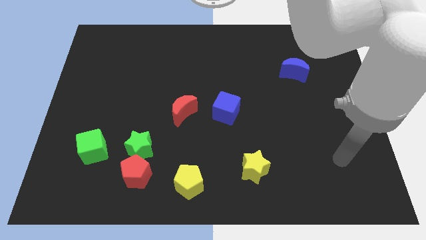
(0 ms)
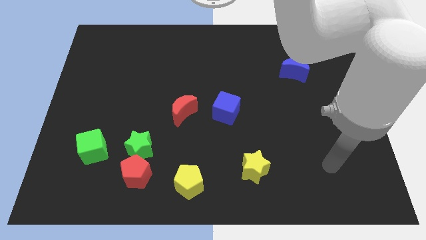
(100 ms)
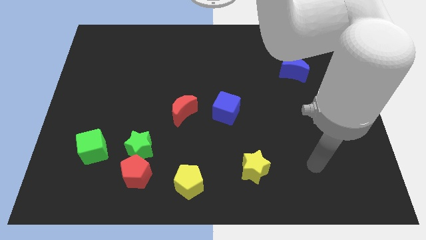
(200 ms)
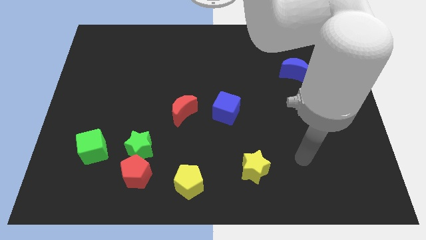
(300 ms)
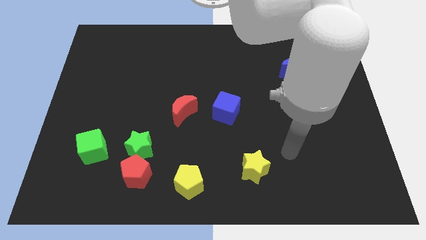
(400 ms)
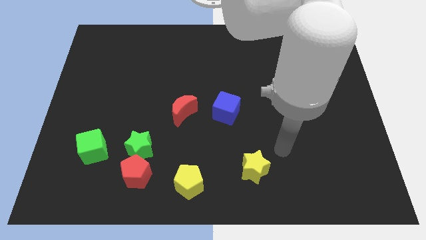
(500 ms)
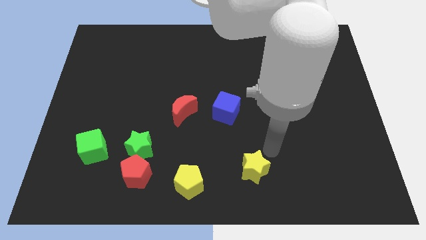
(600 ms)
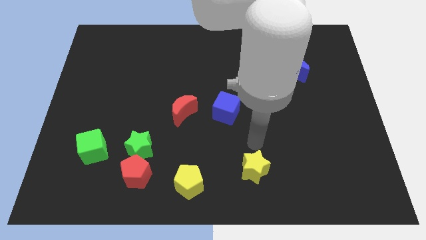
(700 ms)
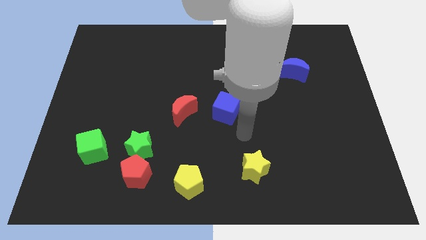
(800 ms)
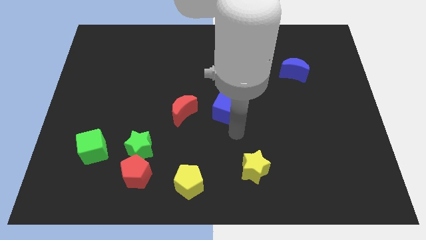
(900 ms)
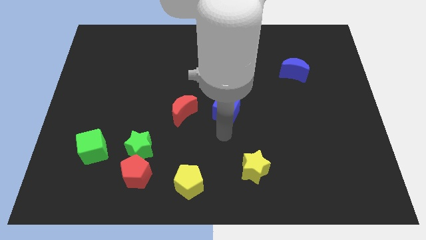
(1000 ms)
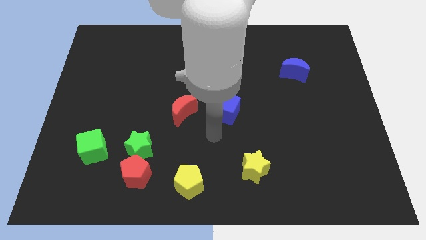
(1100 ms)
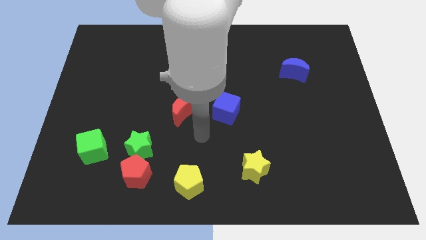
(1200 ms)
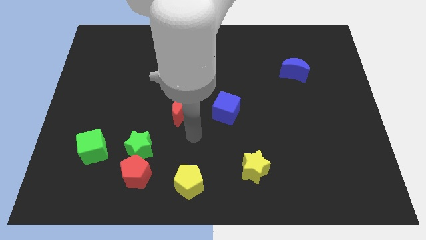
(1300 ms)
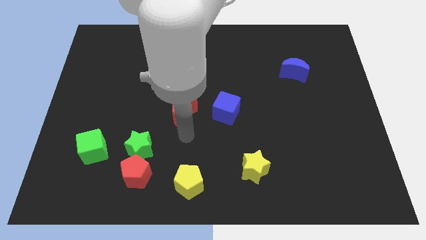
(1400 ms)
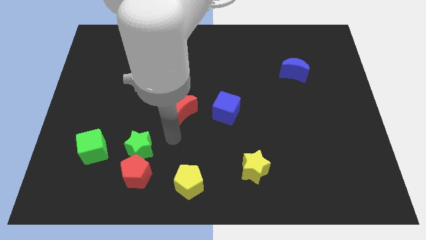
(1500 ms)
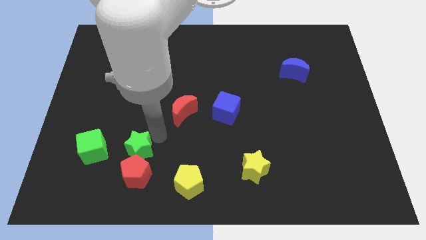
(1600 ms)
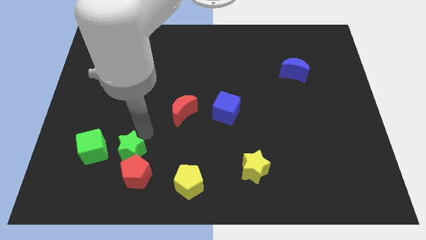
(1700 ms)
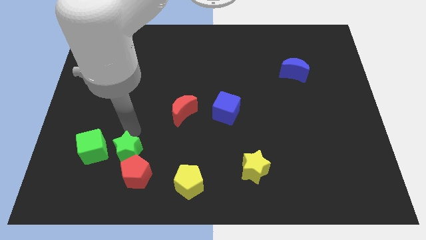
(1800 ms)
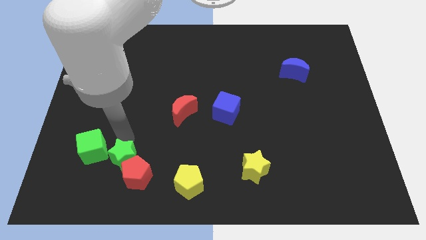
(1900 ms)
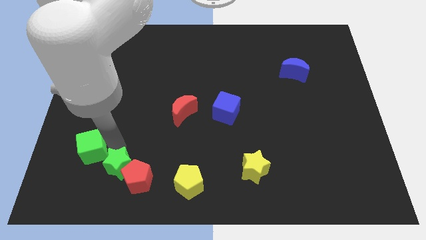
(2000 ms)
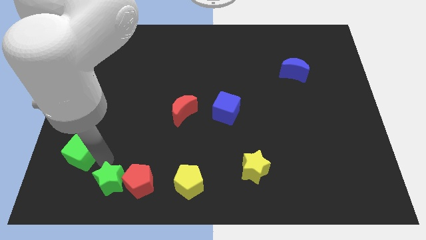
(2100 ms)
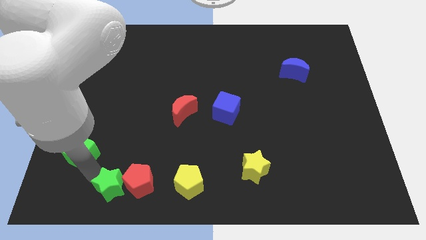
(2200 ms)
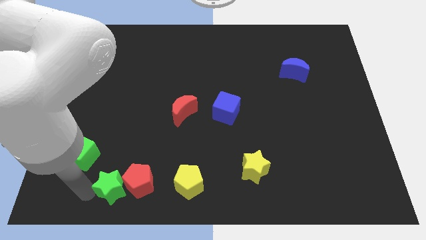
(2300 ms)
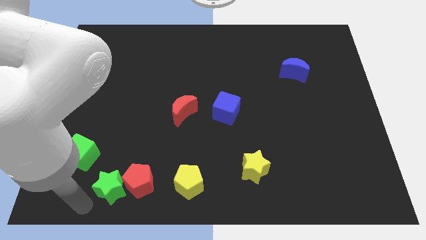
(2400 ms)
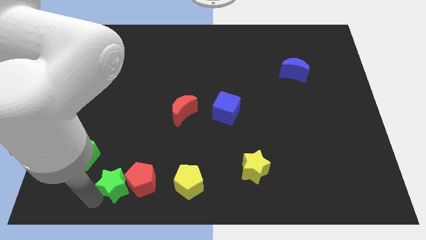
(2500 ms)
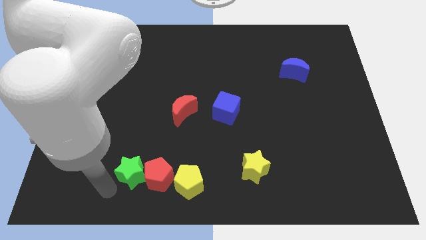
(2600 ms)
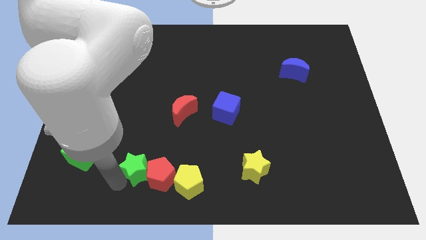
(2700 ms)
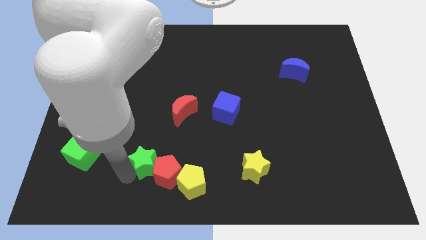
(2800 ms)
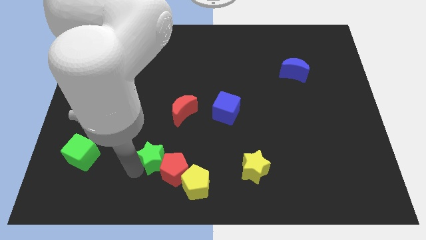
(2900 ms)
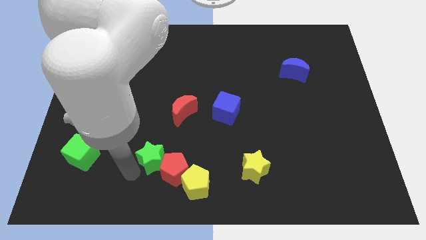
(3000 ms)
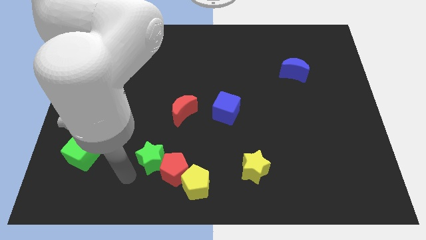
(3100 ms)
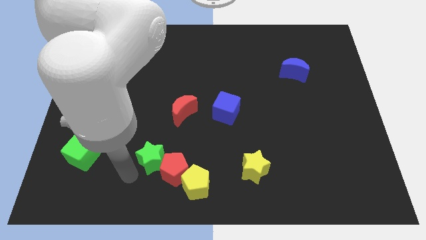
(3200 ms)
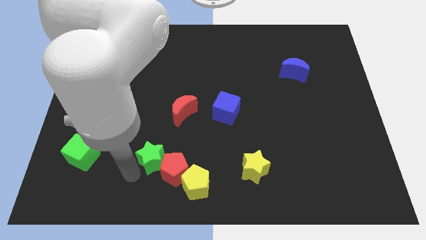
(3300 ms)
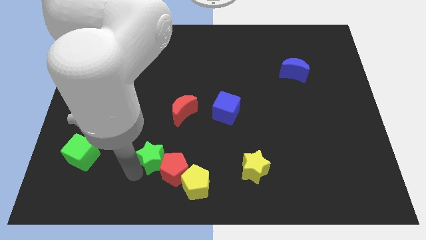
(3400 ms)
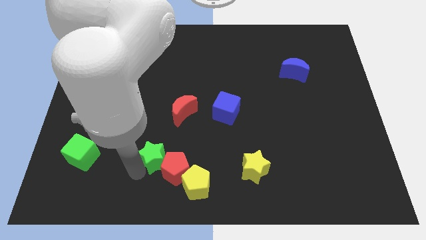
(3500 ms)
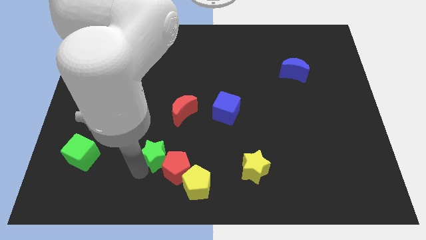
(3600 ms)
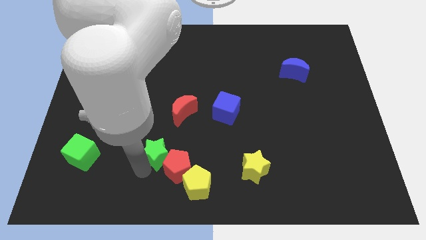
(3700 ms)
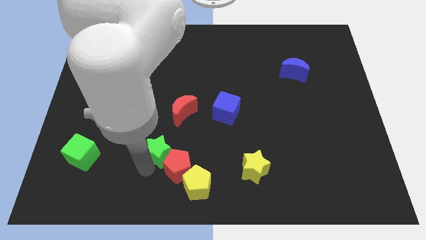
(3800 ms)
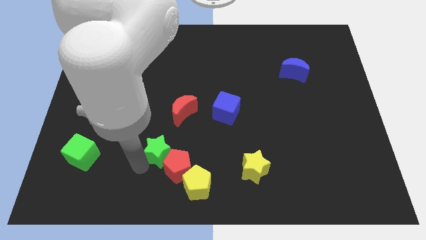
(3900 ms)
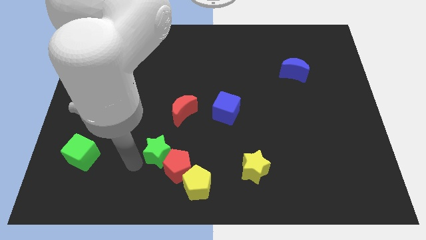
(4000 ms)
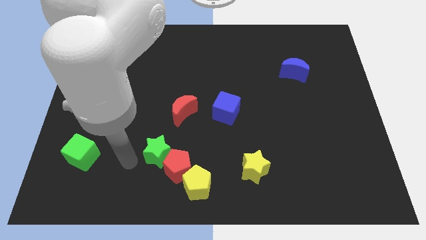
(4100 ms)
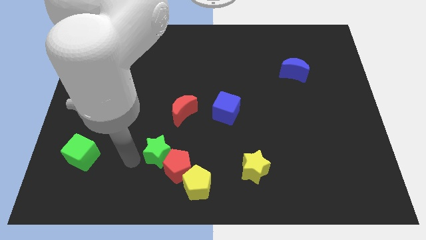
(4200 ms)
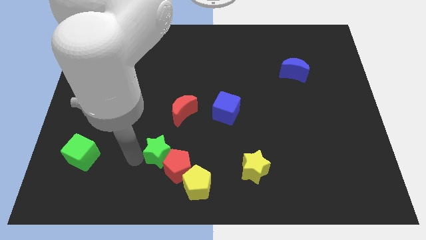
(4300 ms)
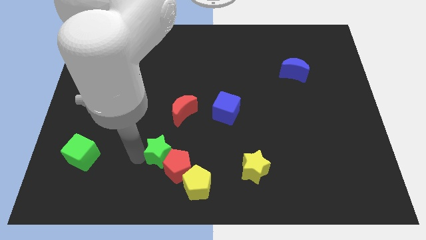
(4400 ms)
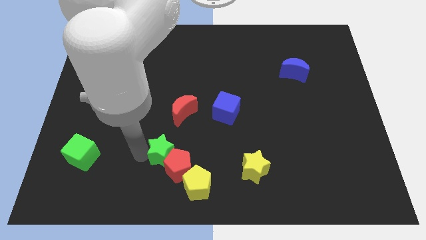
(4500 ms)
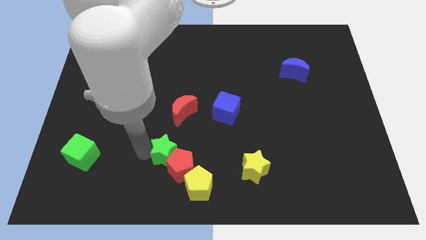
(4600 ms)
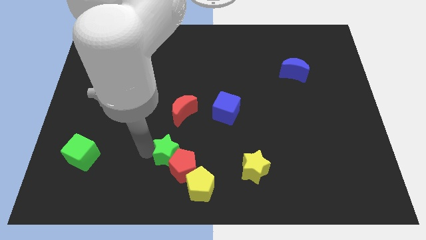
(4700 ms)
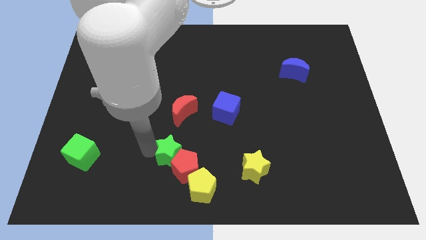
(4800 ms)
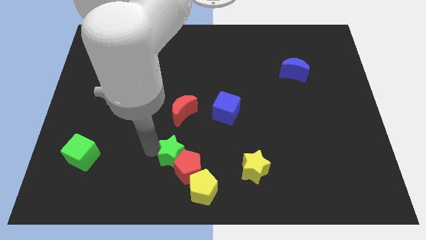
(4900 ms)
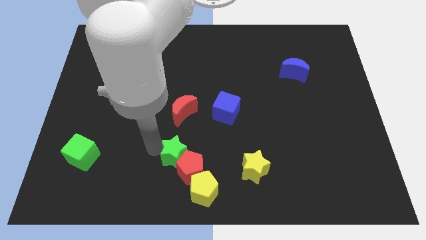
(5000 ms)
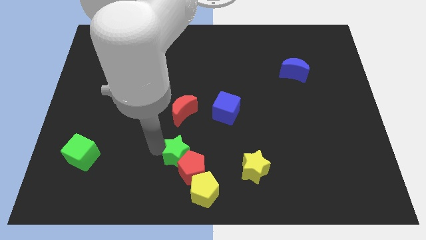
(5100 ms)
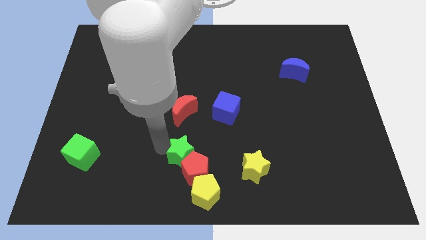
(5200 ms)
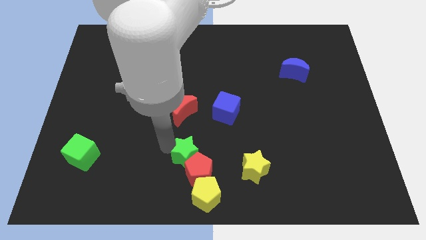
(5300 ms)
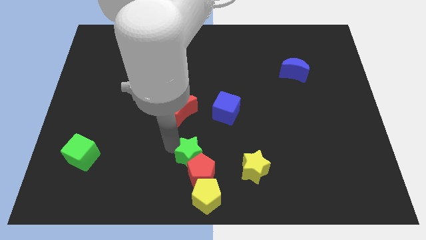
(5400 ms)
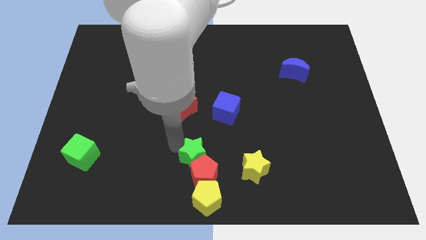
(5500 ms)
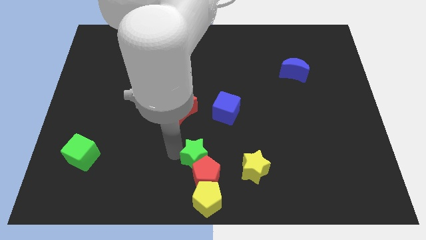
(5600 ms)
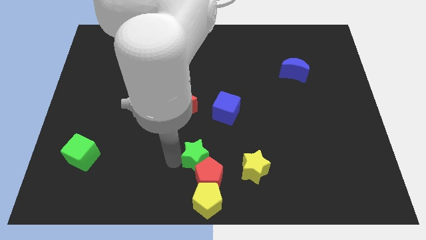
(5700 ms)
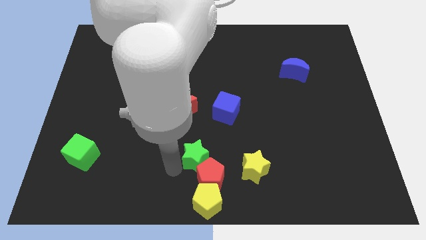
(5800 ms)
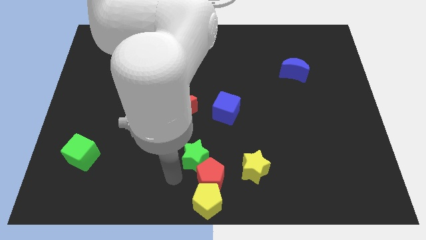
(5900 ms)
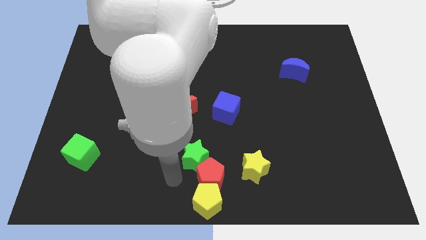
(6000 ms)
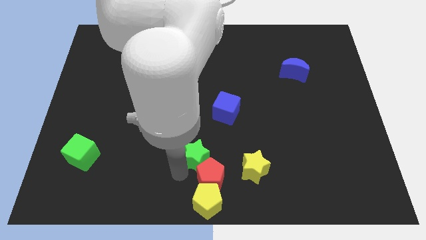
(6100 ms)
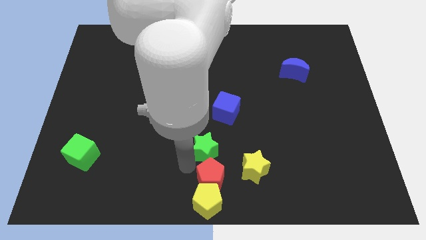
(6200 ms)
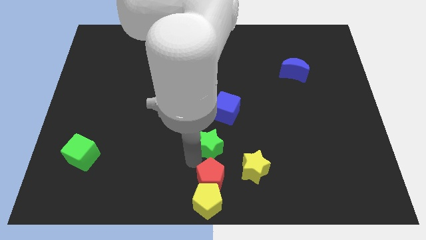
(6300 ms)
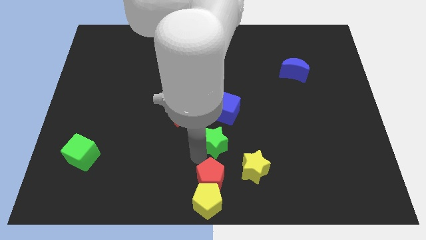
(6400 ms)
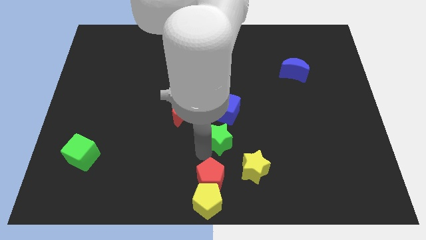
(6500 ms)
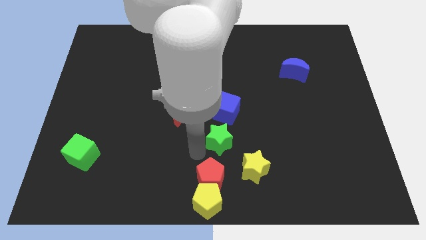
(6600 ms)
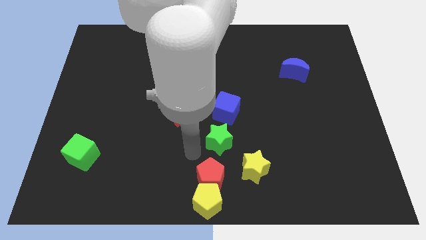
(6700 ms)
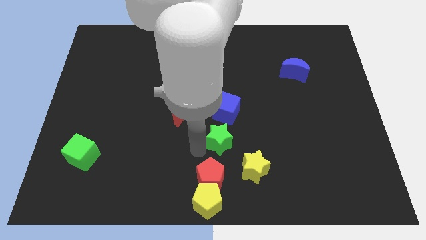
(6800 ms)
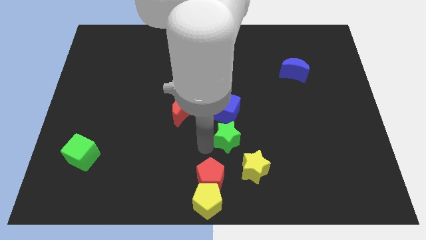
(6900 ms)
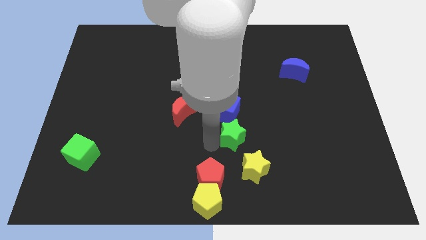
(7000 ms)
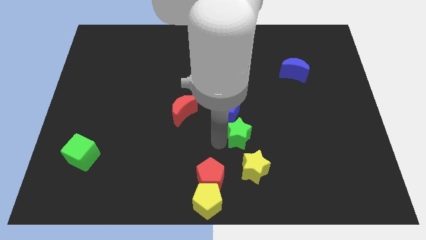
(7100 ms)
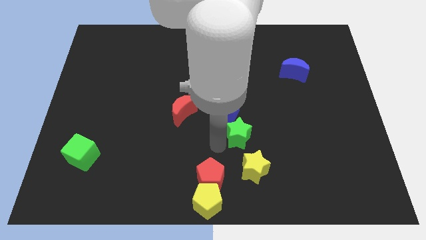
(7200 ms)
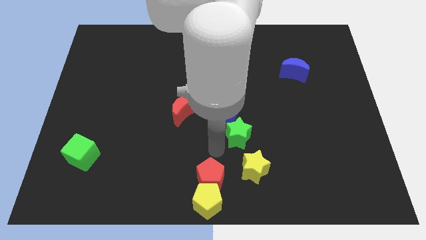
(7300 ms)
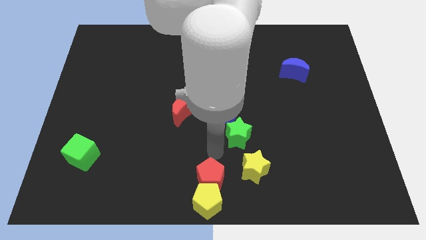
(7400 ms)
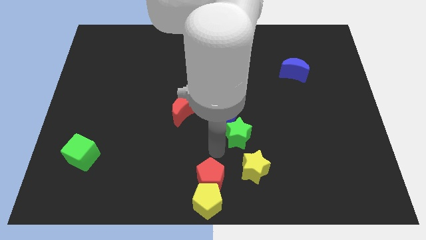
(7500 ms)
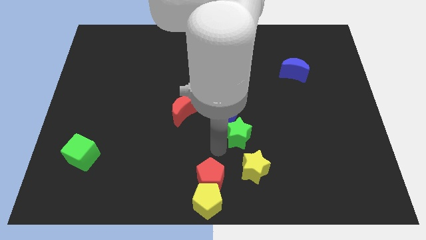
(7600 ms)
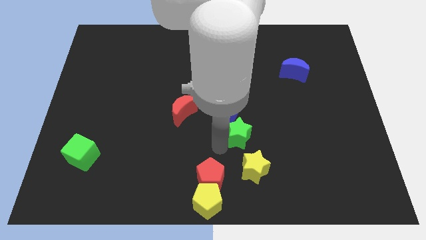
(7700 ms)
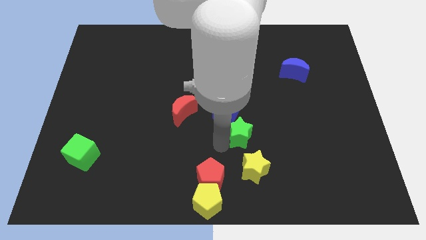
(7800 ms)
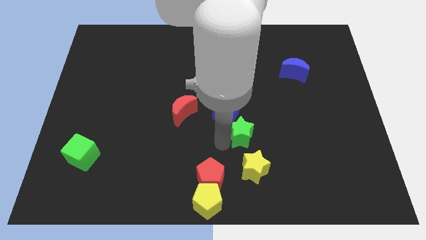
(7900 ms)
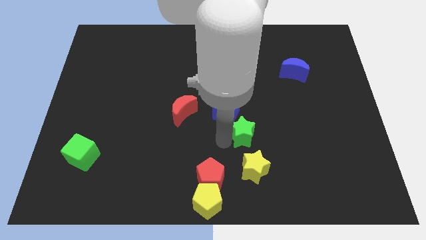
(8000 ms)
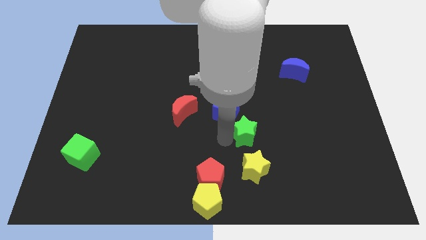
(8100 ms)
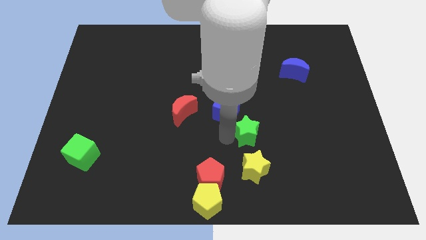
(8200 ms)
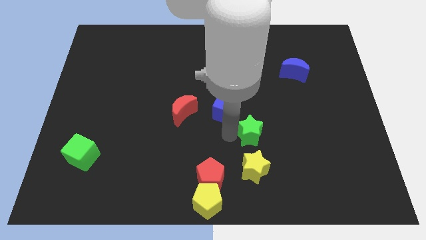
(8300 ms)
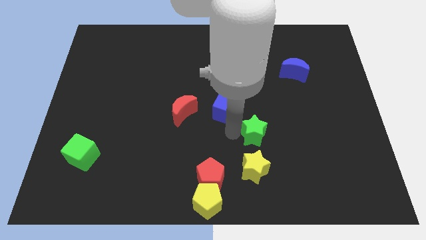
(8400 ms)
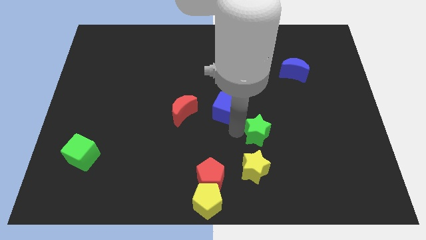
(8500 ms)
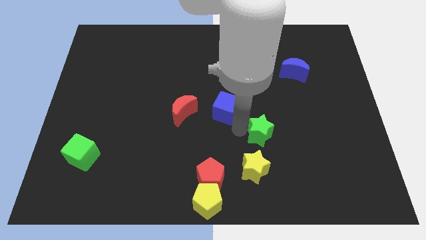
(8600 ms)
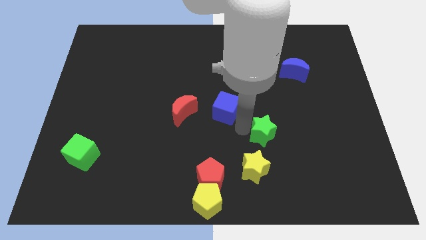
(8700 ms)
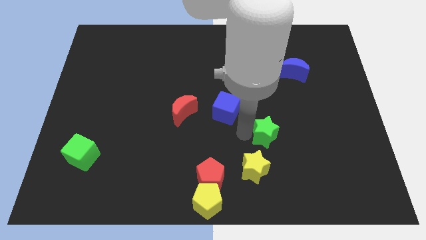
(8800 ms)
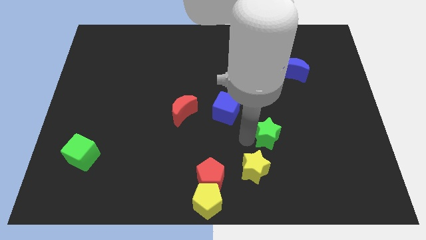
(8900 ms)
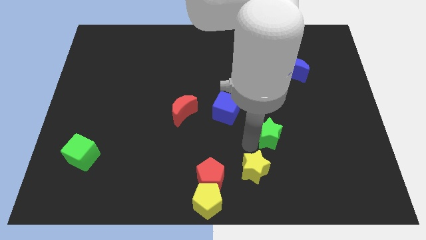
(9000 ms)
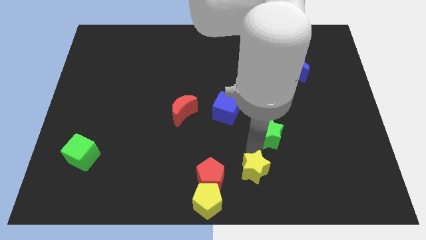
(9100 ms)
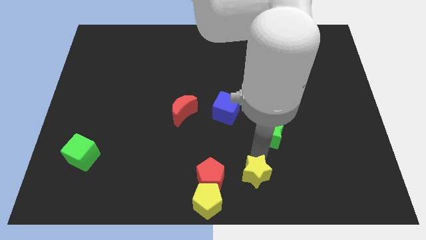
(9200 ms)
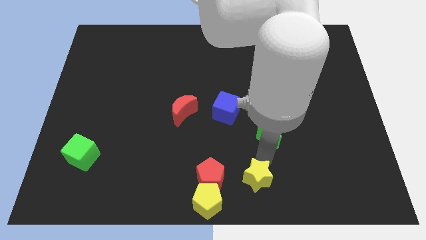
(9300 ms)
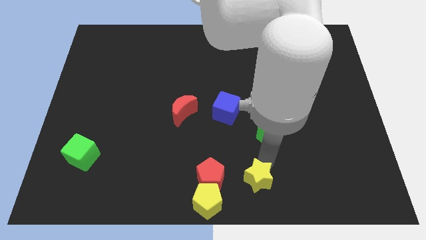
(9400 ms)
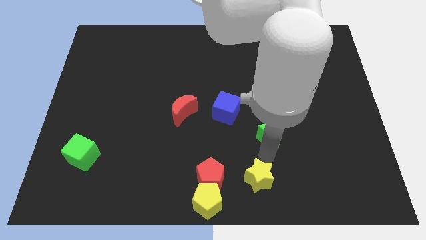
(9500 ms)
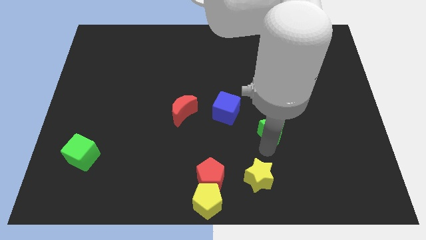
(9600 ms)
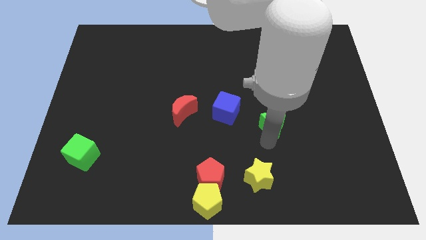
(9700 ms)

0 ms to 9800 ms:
slide the green star right of the blue cube
